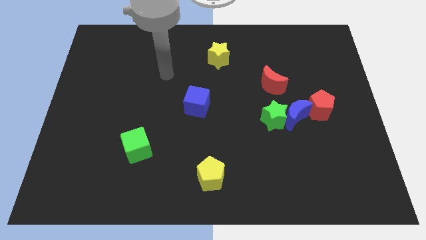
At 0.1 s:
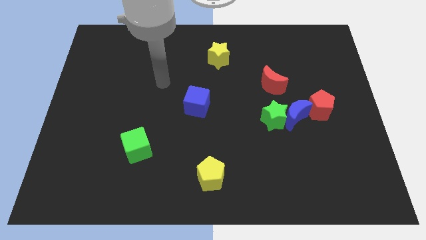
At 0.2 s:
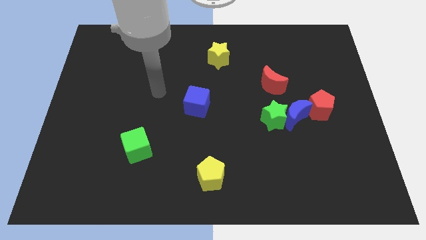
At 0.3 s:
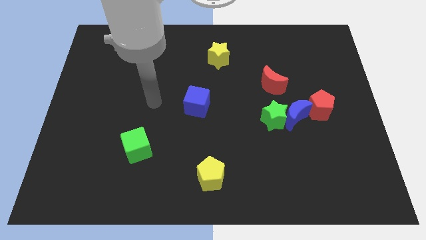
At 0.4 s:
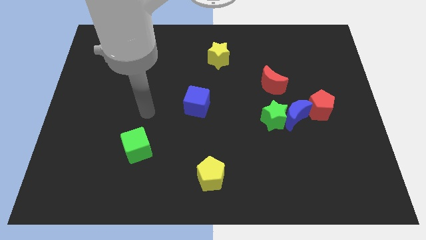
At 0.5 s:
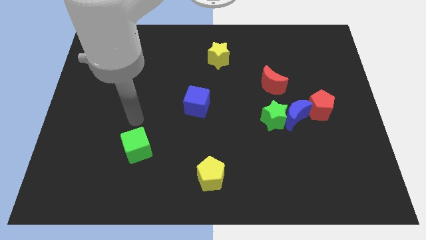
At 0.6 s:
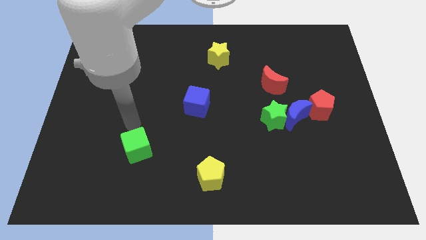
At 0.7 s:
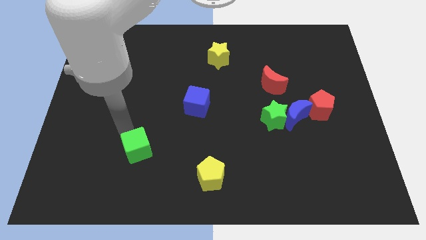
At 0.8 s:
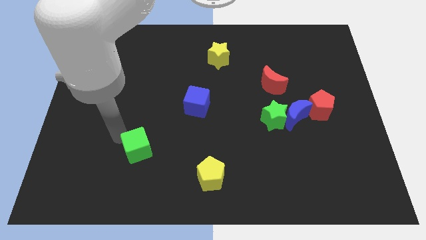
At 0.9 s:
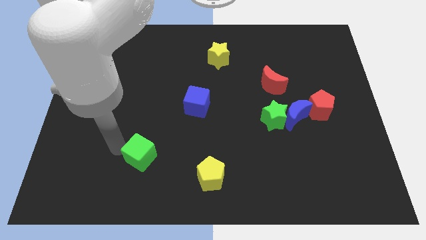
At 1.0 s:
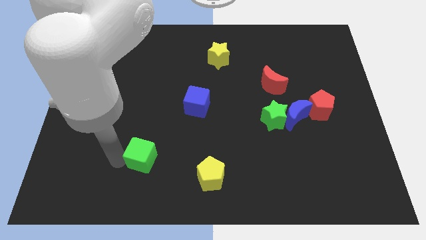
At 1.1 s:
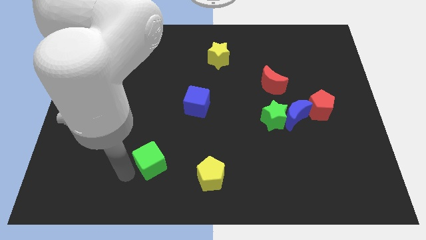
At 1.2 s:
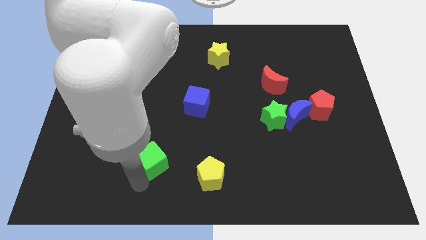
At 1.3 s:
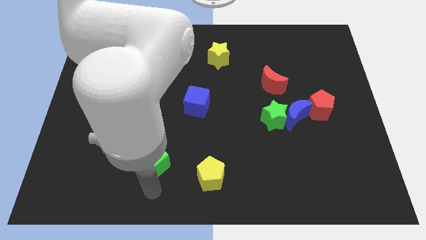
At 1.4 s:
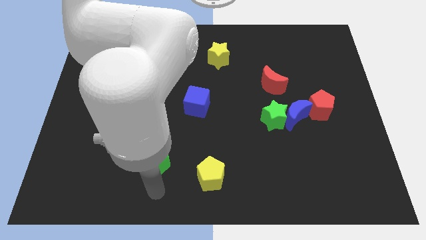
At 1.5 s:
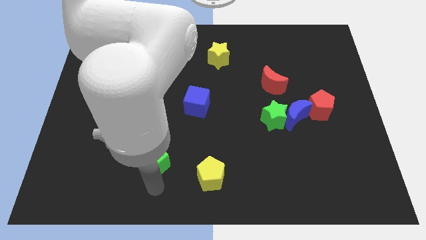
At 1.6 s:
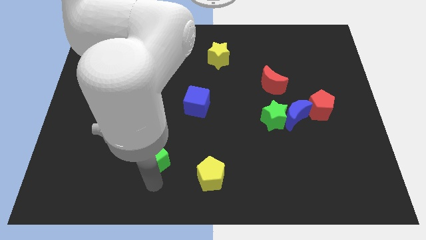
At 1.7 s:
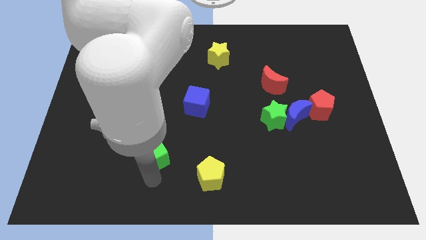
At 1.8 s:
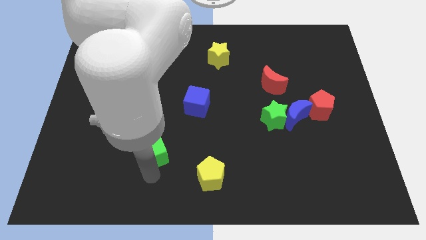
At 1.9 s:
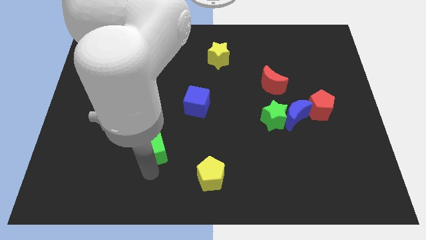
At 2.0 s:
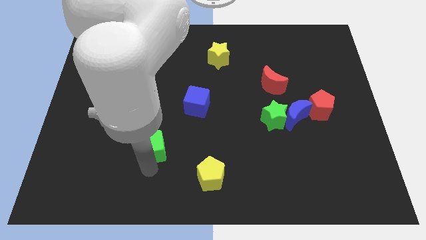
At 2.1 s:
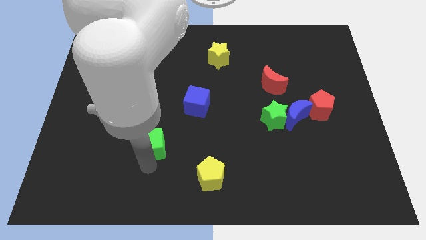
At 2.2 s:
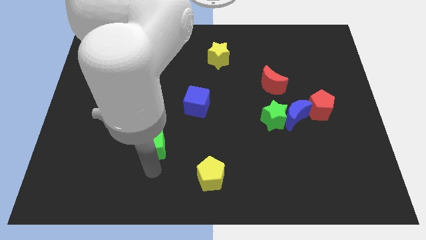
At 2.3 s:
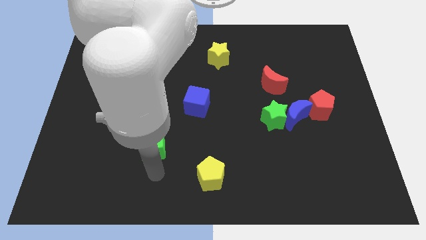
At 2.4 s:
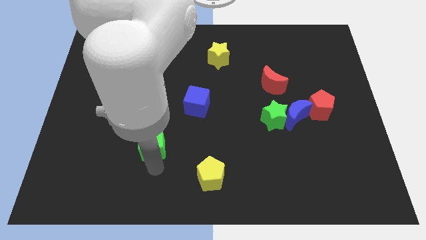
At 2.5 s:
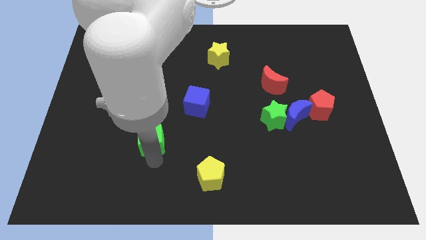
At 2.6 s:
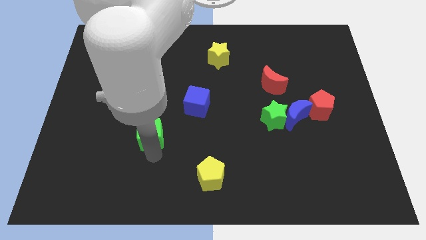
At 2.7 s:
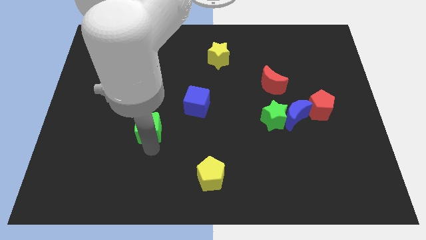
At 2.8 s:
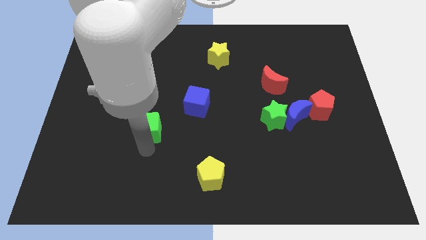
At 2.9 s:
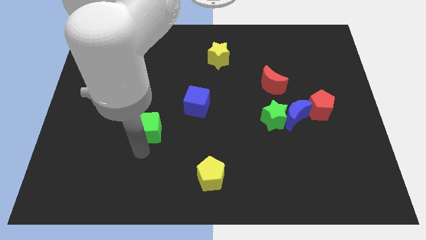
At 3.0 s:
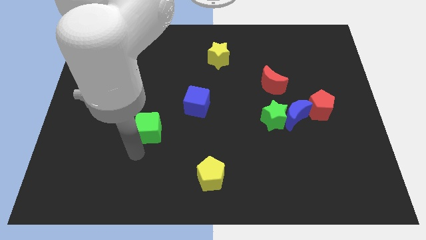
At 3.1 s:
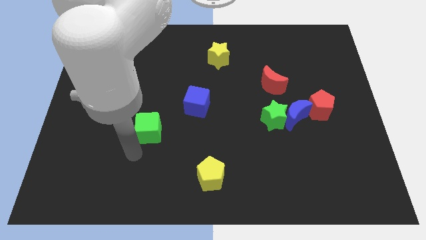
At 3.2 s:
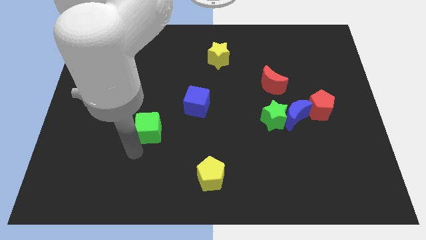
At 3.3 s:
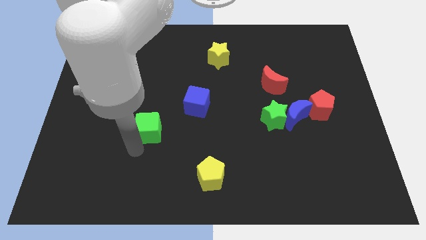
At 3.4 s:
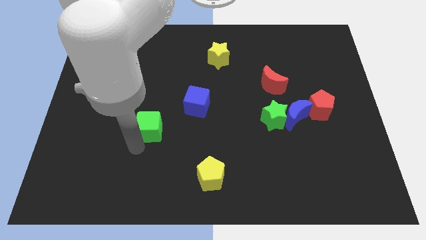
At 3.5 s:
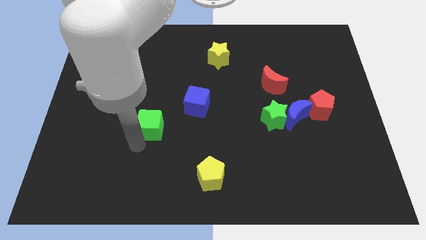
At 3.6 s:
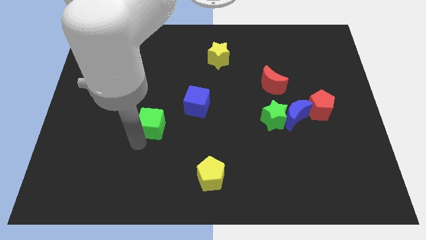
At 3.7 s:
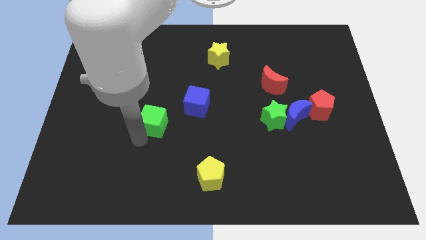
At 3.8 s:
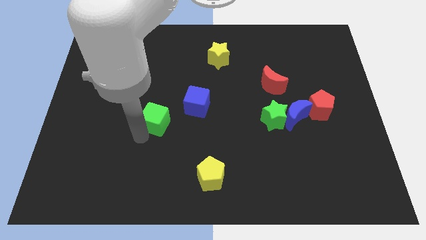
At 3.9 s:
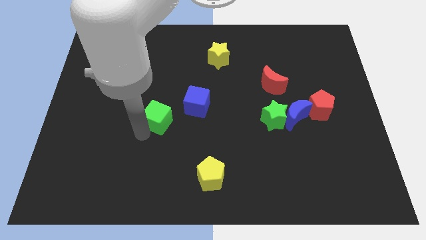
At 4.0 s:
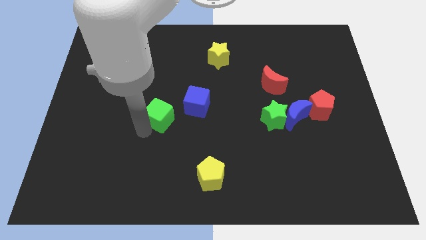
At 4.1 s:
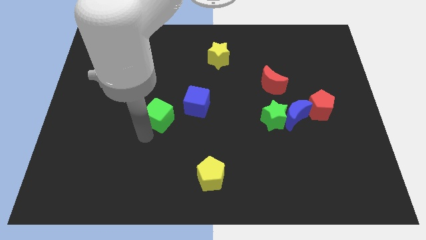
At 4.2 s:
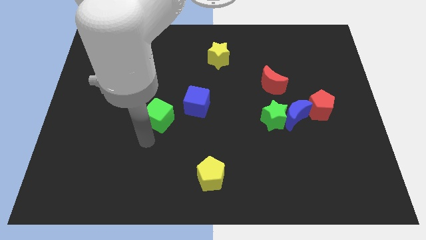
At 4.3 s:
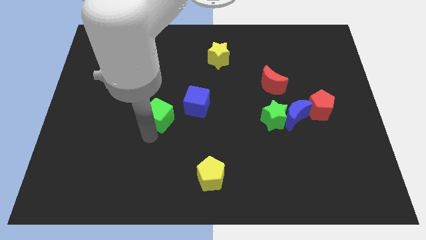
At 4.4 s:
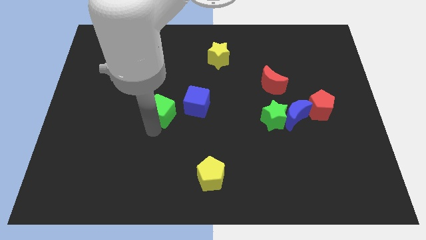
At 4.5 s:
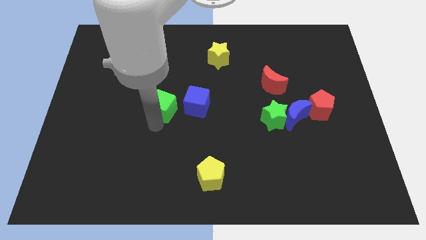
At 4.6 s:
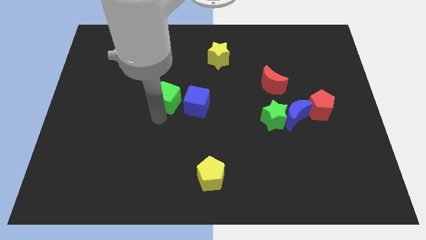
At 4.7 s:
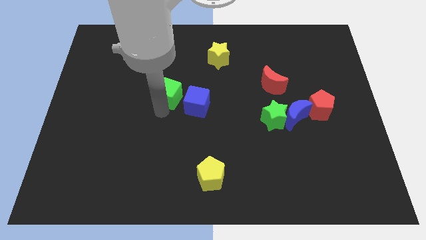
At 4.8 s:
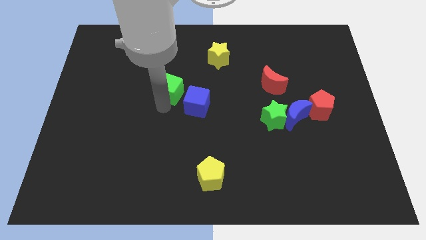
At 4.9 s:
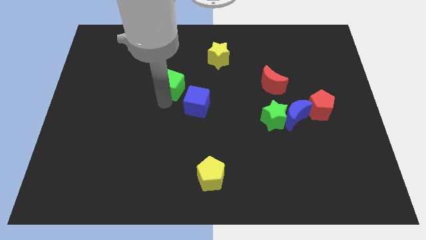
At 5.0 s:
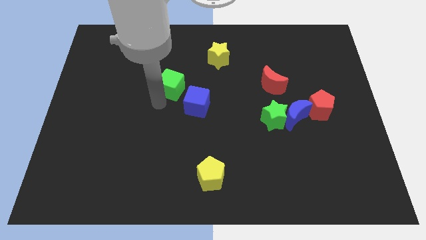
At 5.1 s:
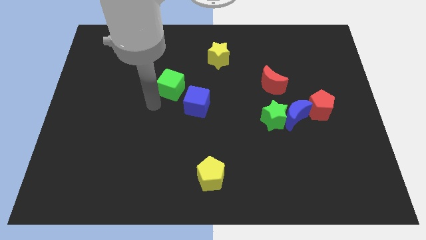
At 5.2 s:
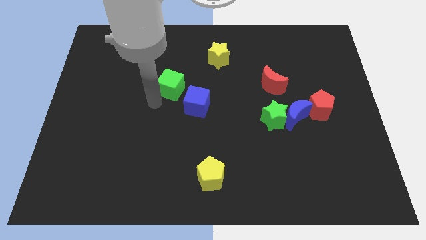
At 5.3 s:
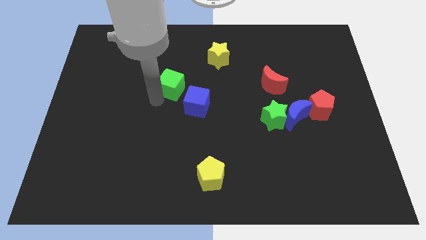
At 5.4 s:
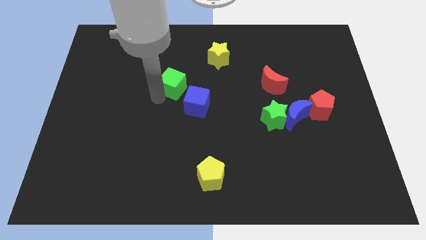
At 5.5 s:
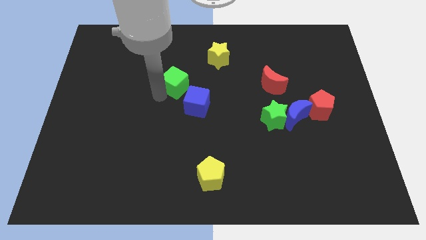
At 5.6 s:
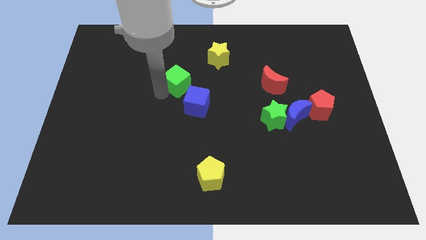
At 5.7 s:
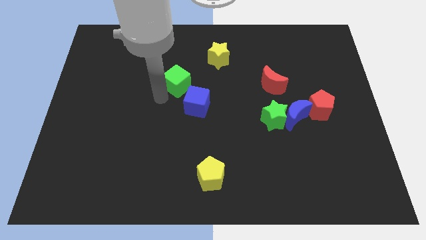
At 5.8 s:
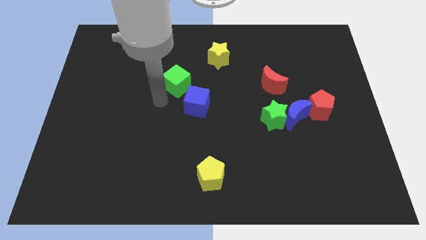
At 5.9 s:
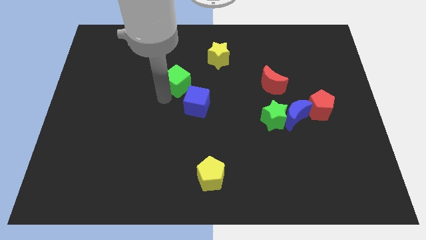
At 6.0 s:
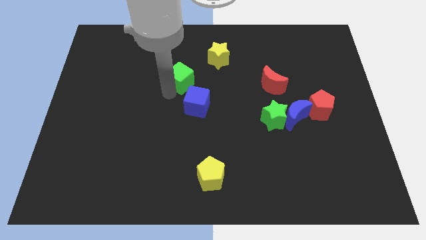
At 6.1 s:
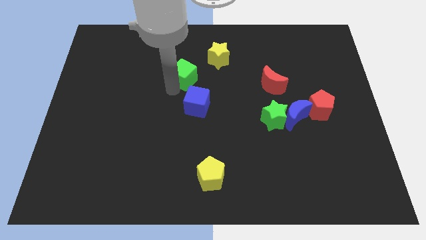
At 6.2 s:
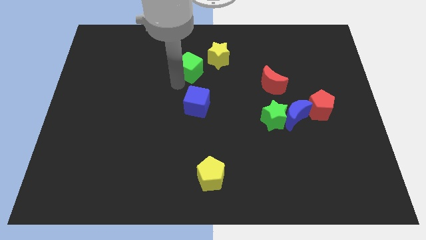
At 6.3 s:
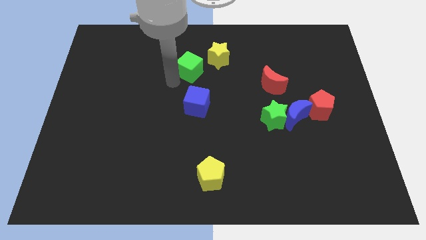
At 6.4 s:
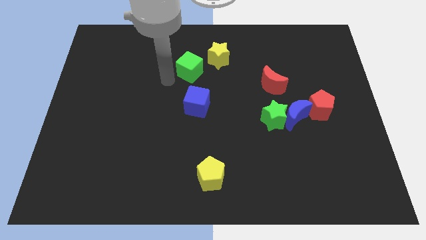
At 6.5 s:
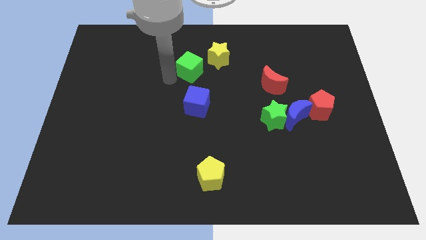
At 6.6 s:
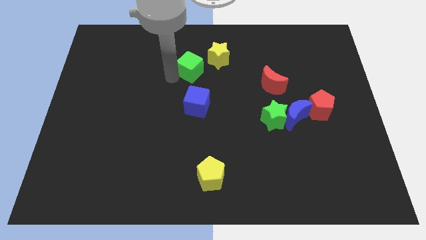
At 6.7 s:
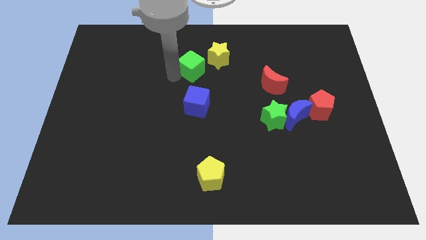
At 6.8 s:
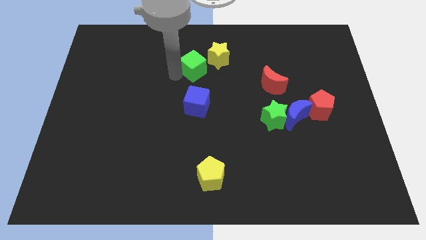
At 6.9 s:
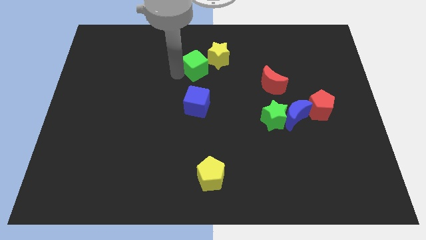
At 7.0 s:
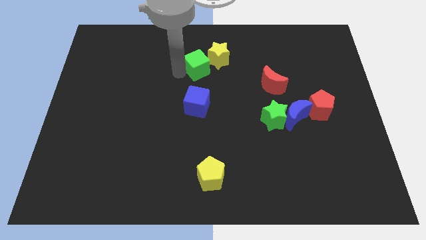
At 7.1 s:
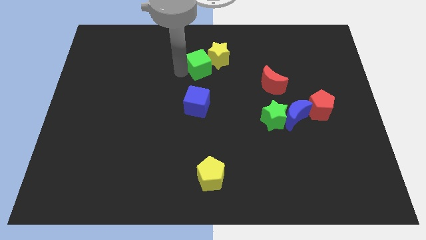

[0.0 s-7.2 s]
move the green cube towards the yellow star
